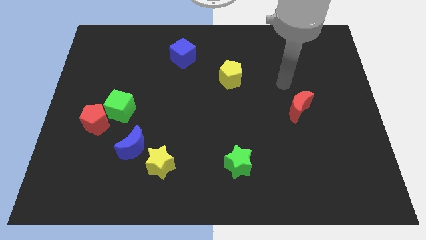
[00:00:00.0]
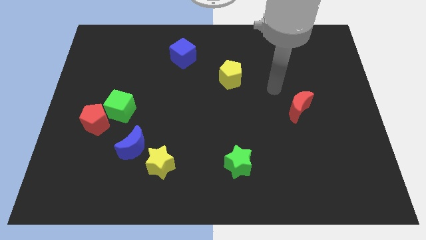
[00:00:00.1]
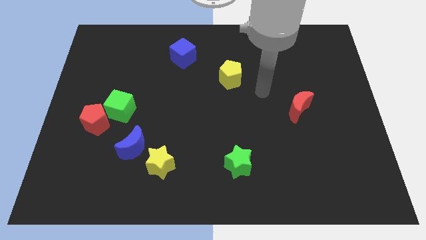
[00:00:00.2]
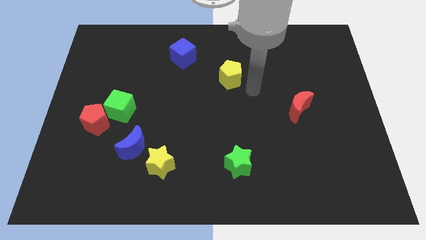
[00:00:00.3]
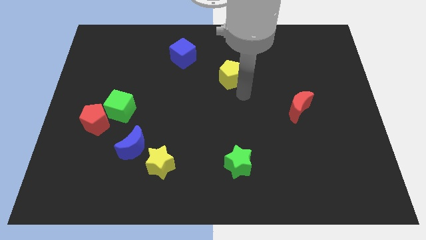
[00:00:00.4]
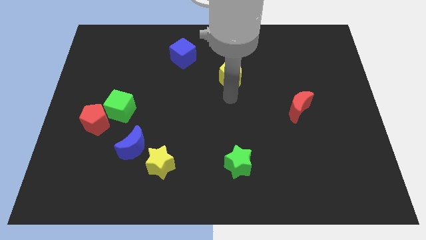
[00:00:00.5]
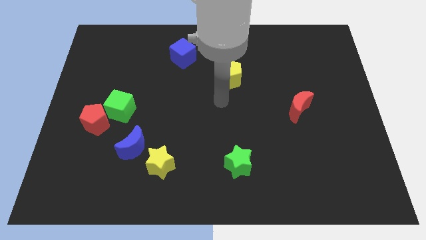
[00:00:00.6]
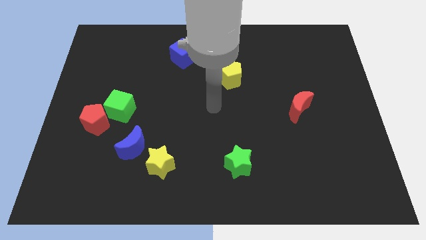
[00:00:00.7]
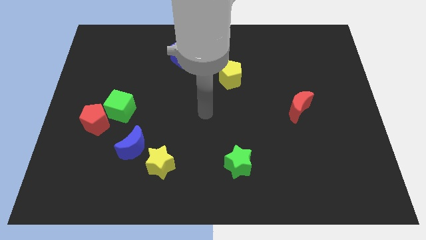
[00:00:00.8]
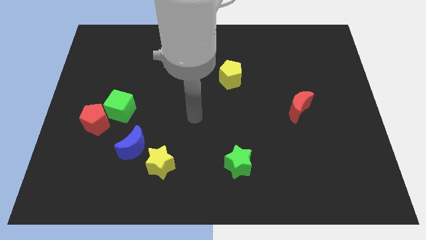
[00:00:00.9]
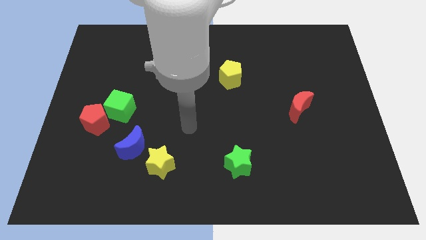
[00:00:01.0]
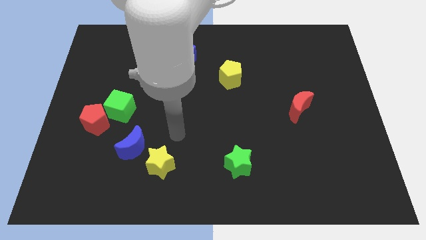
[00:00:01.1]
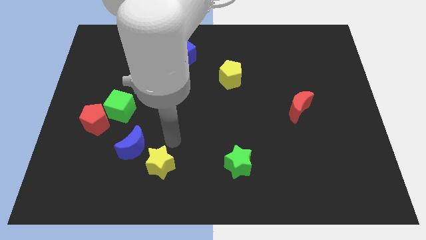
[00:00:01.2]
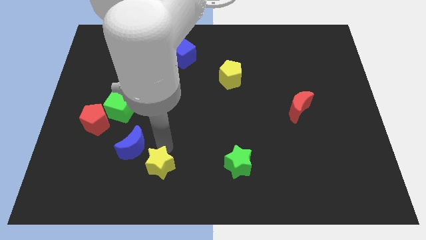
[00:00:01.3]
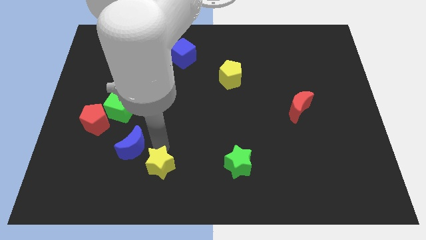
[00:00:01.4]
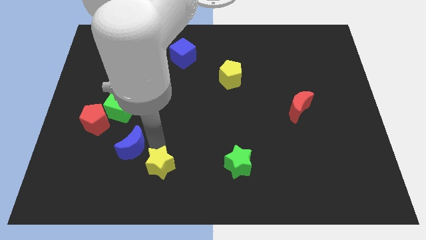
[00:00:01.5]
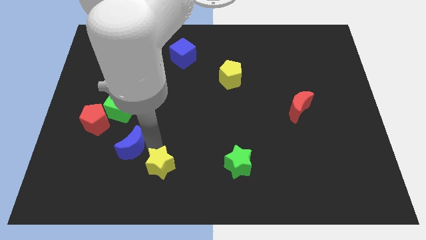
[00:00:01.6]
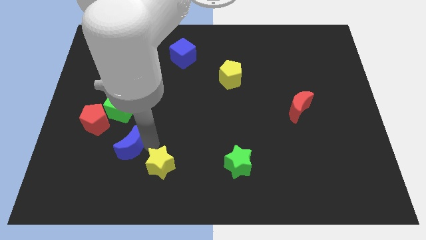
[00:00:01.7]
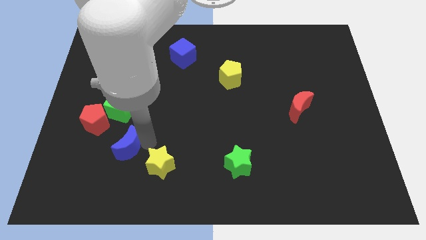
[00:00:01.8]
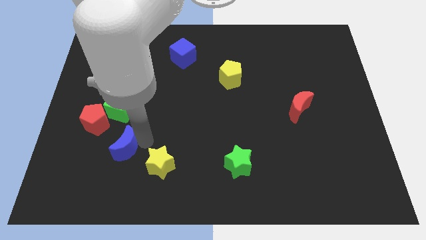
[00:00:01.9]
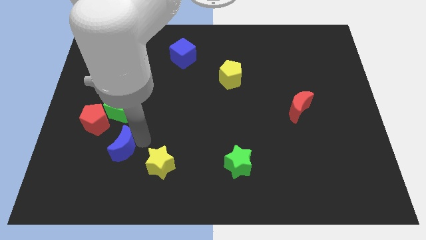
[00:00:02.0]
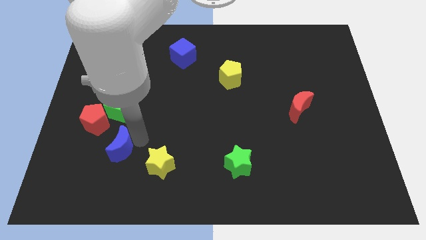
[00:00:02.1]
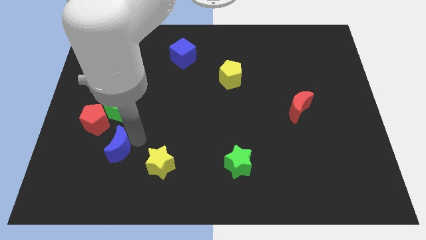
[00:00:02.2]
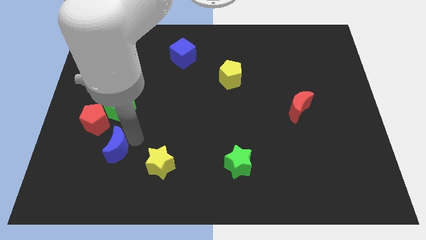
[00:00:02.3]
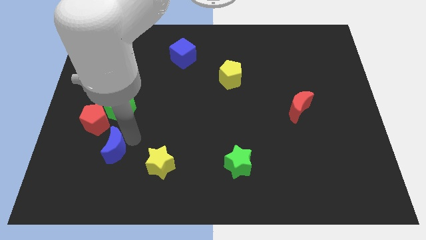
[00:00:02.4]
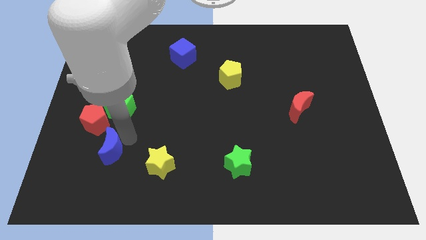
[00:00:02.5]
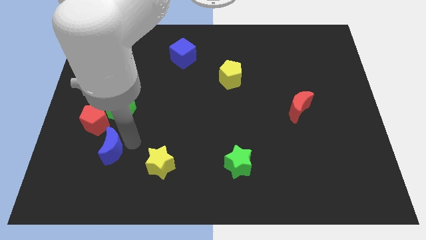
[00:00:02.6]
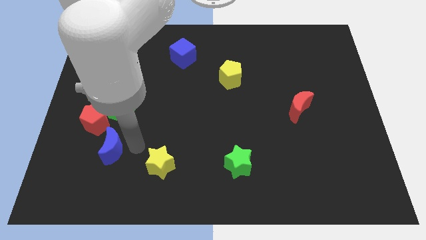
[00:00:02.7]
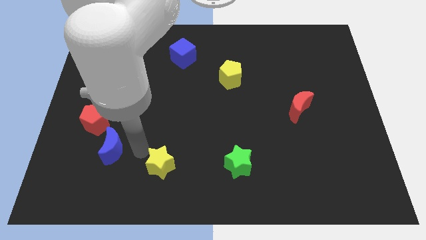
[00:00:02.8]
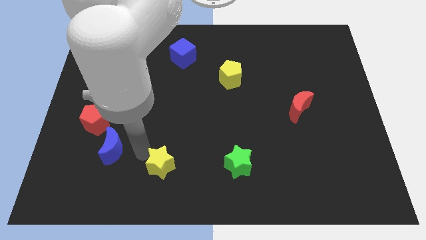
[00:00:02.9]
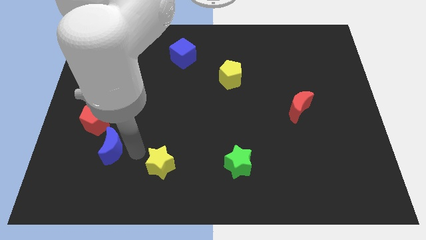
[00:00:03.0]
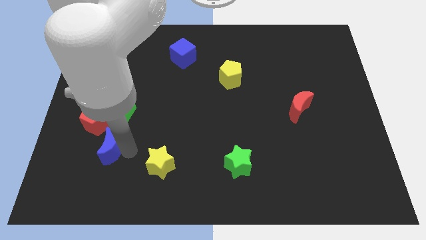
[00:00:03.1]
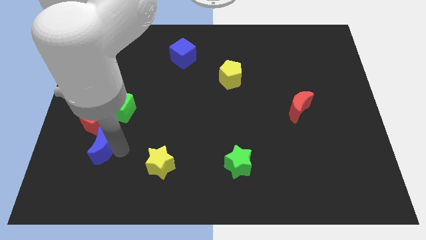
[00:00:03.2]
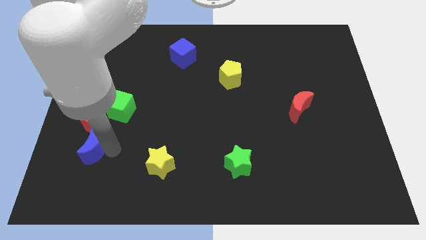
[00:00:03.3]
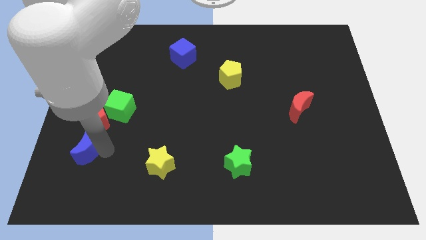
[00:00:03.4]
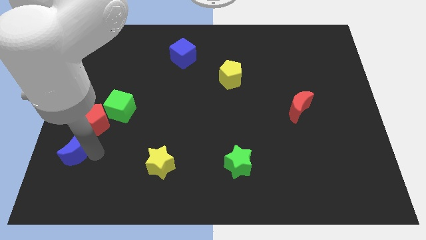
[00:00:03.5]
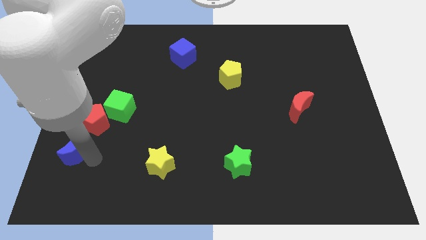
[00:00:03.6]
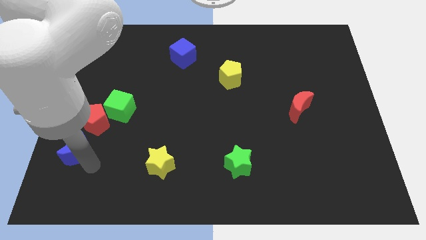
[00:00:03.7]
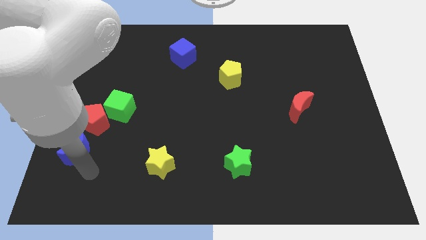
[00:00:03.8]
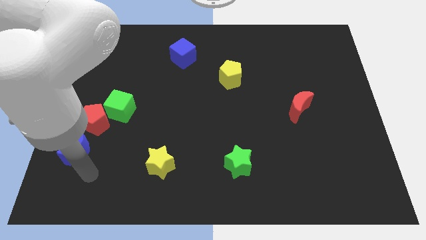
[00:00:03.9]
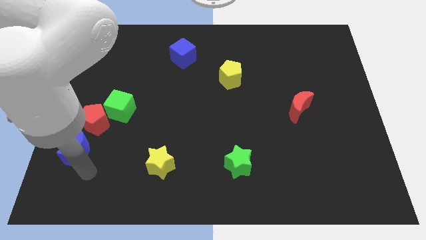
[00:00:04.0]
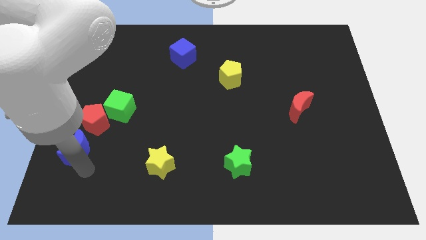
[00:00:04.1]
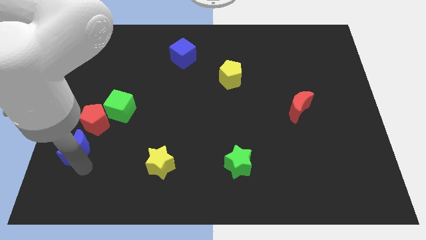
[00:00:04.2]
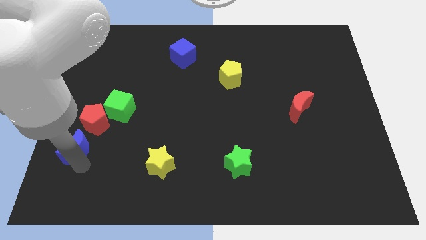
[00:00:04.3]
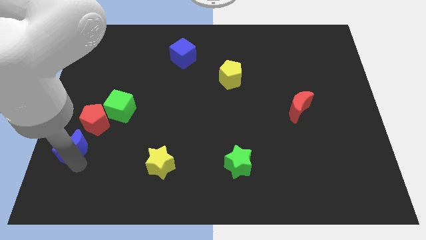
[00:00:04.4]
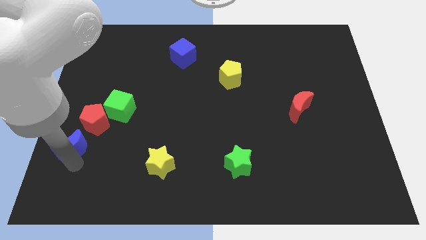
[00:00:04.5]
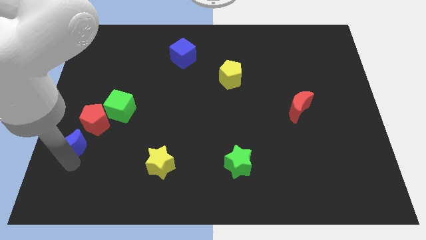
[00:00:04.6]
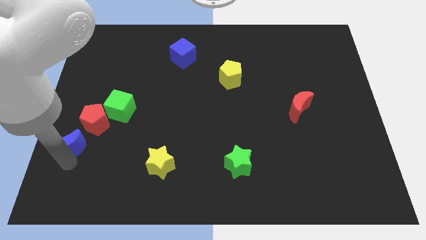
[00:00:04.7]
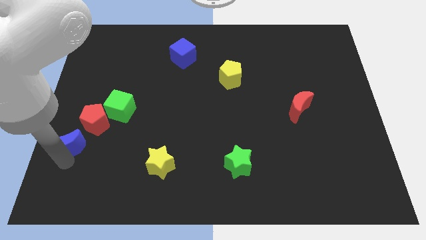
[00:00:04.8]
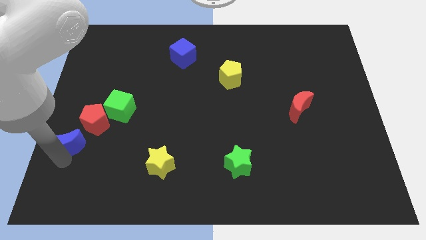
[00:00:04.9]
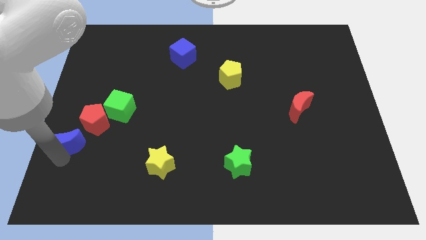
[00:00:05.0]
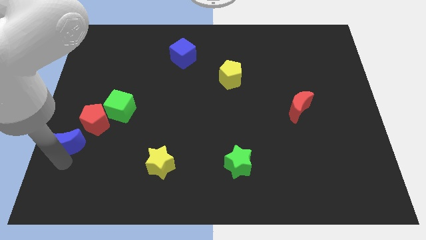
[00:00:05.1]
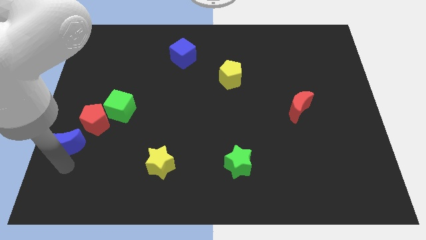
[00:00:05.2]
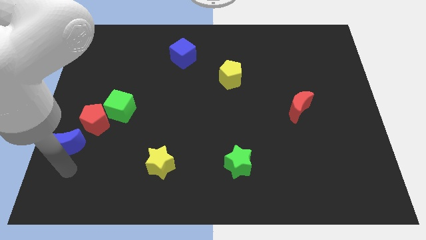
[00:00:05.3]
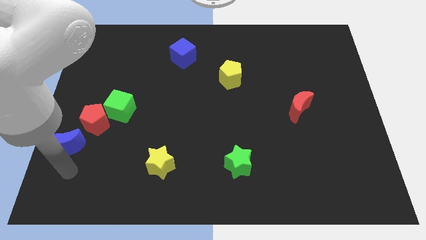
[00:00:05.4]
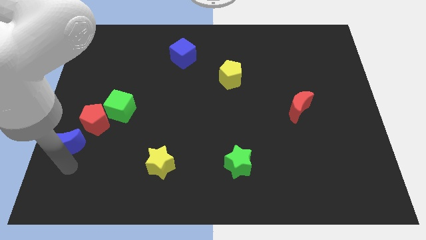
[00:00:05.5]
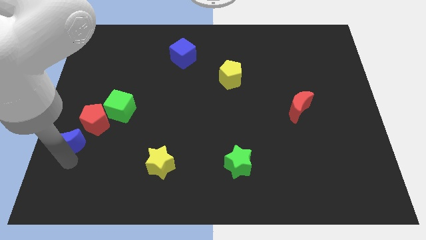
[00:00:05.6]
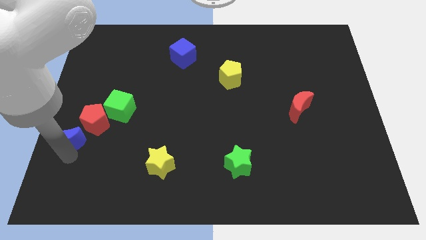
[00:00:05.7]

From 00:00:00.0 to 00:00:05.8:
push the blue moon to the center left
